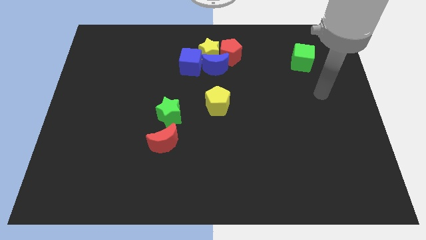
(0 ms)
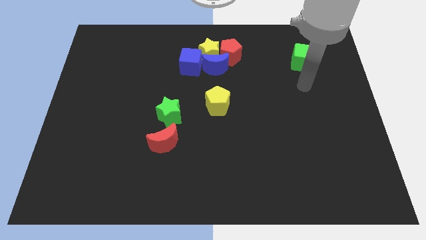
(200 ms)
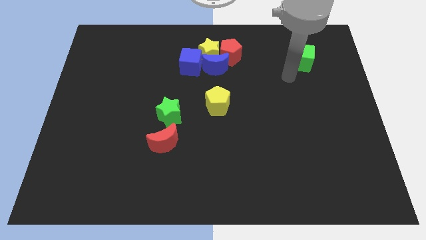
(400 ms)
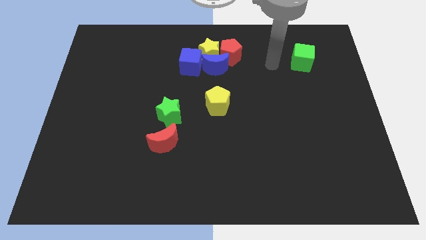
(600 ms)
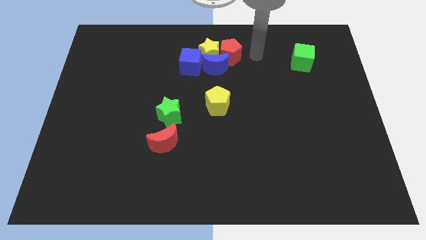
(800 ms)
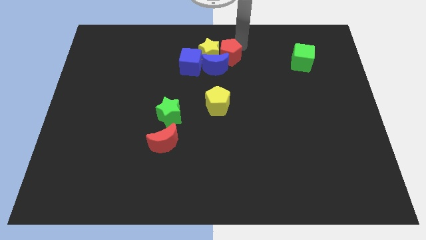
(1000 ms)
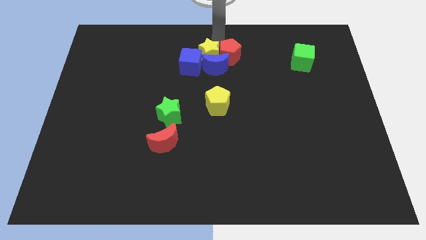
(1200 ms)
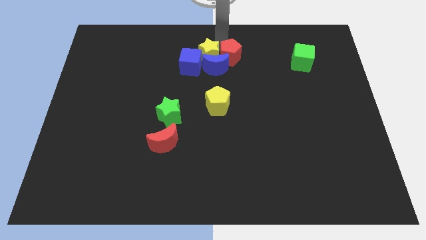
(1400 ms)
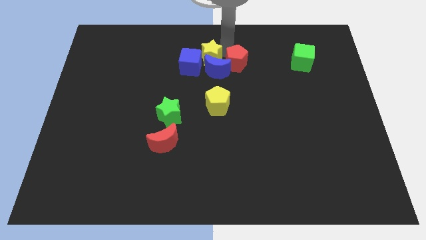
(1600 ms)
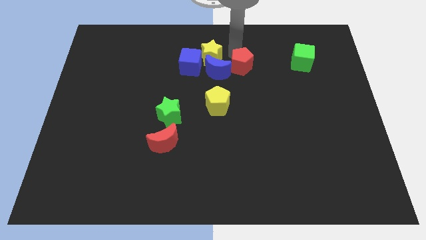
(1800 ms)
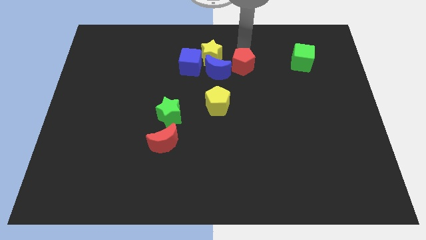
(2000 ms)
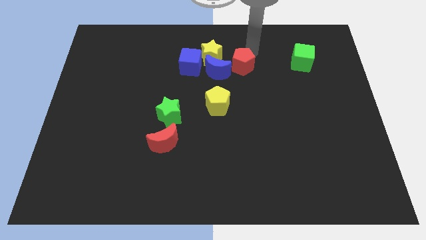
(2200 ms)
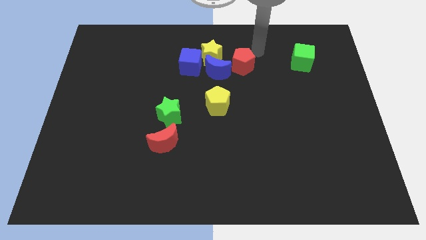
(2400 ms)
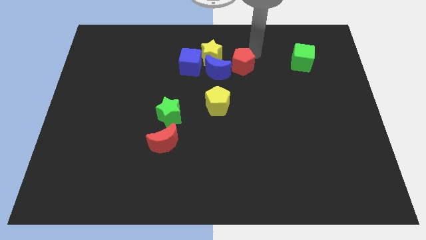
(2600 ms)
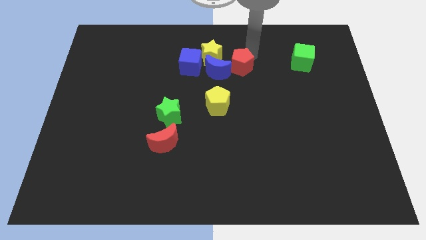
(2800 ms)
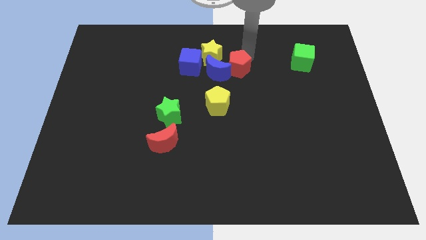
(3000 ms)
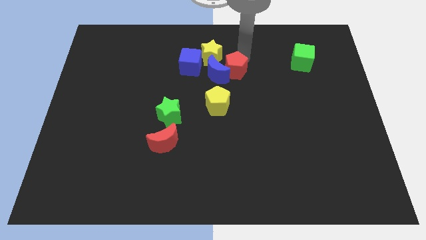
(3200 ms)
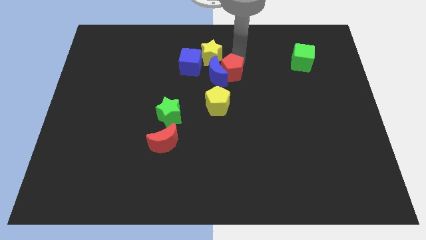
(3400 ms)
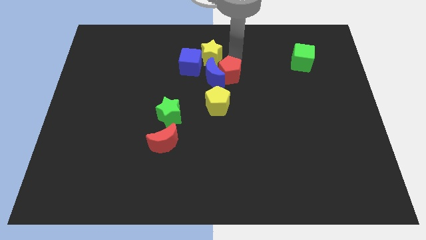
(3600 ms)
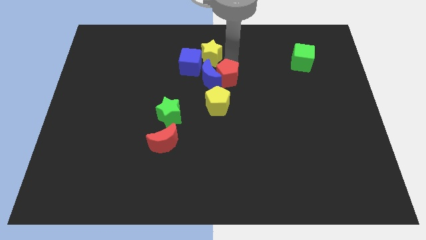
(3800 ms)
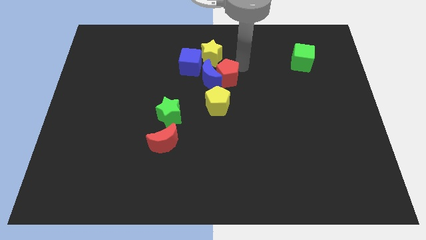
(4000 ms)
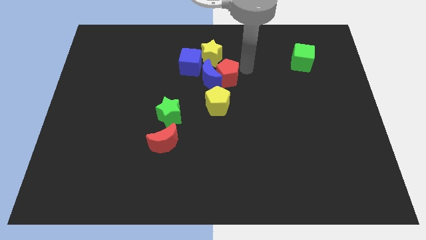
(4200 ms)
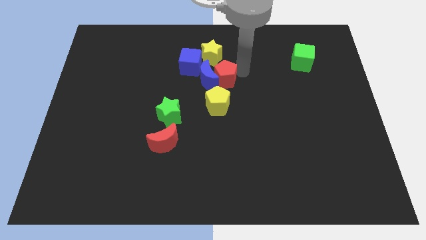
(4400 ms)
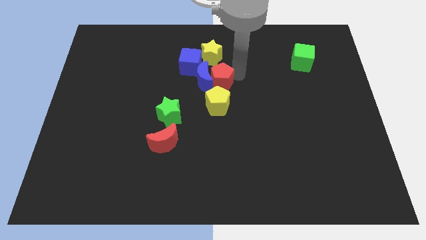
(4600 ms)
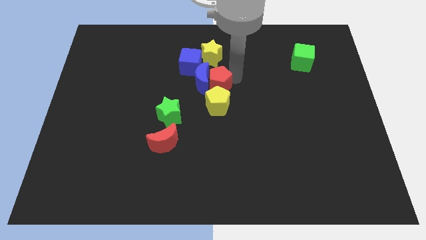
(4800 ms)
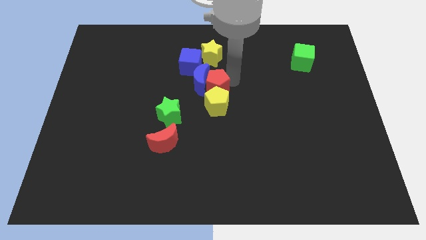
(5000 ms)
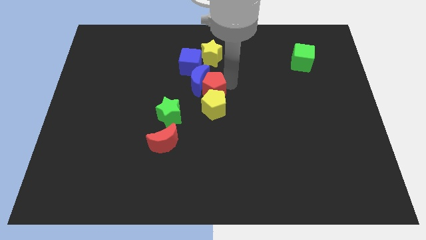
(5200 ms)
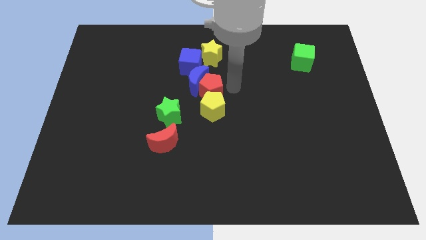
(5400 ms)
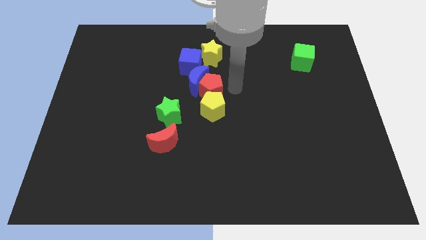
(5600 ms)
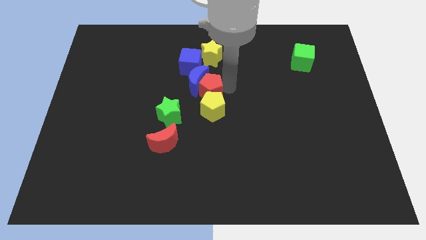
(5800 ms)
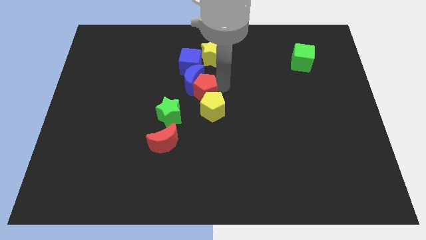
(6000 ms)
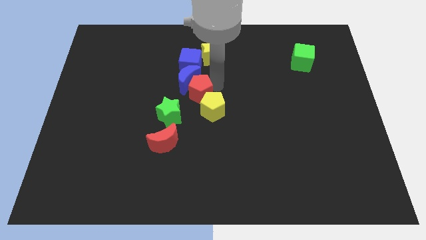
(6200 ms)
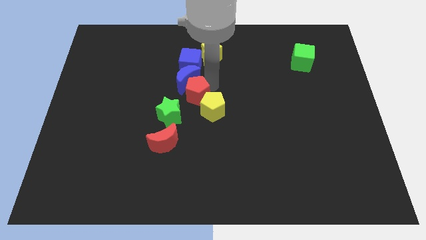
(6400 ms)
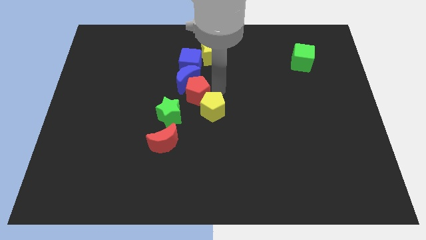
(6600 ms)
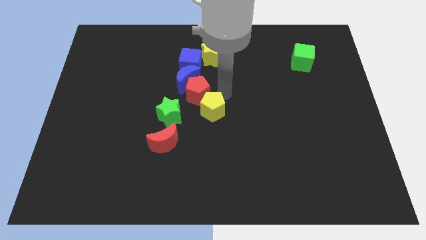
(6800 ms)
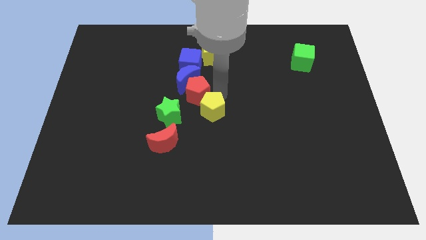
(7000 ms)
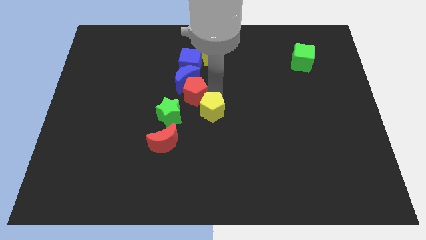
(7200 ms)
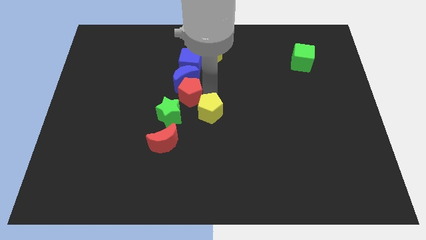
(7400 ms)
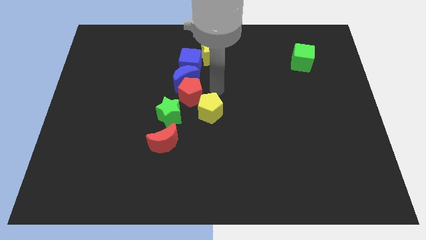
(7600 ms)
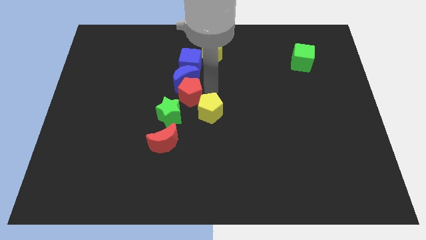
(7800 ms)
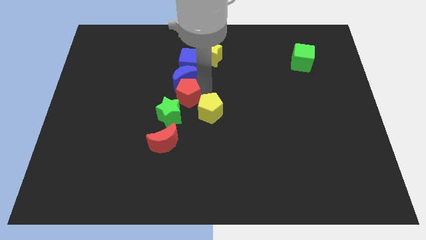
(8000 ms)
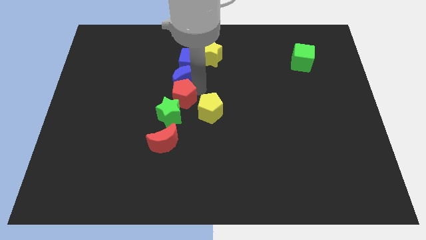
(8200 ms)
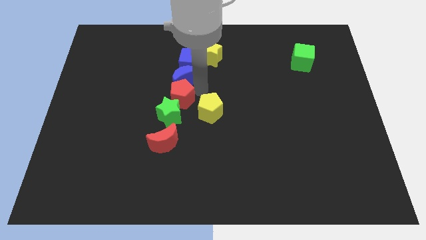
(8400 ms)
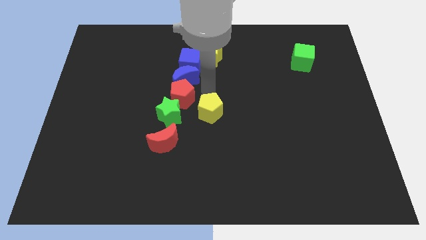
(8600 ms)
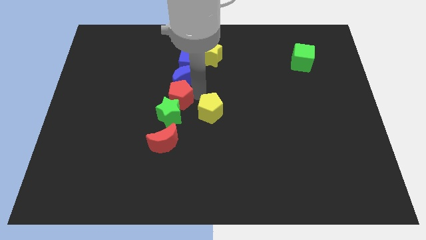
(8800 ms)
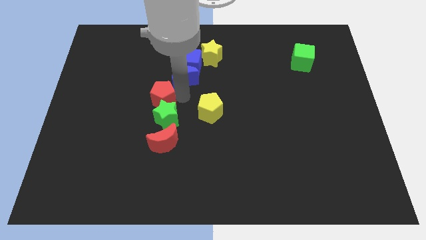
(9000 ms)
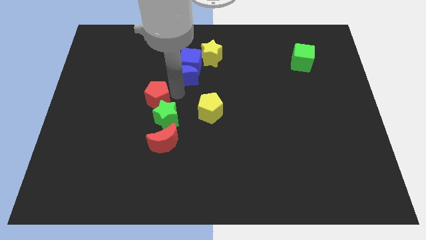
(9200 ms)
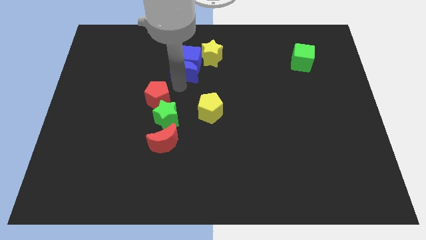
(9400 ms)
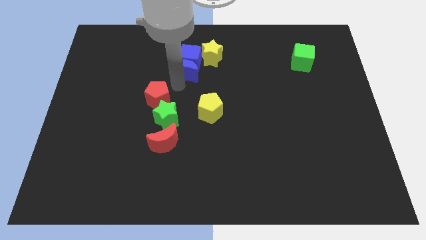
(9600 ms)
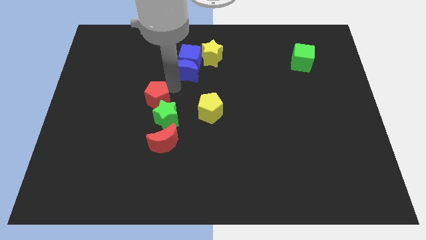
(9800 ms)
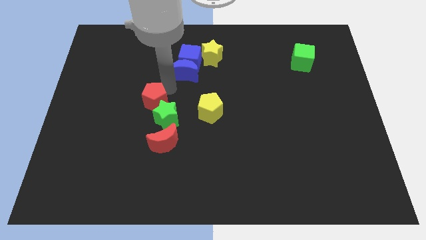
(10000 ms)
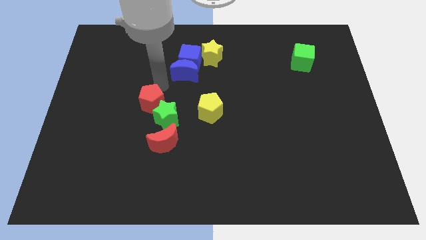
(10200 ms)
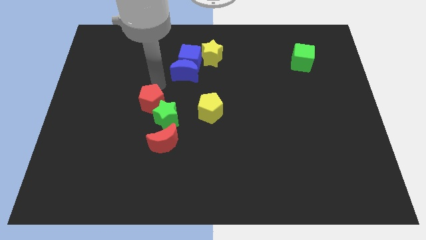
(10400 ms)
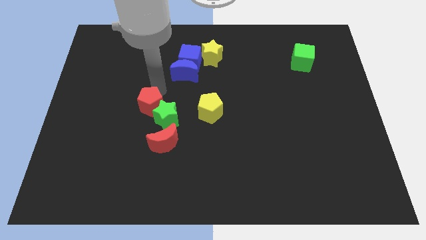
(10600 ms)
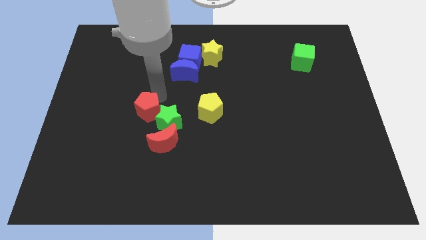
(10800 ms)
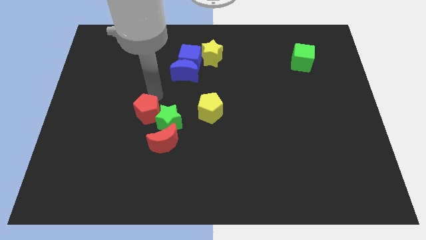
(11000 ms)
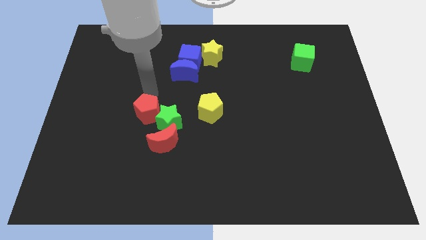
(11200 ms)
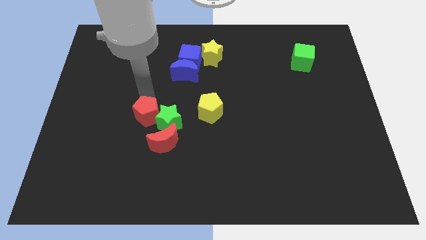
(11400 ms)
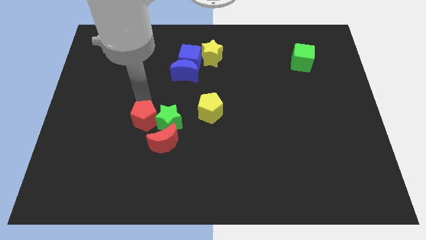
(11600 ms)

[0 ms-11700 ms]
push the red pentagon to the bottom left side of the green star
